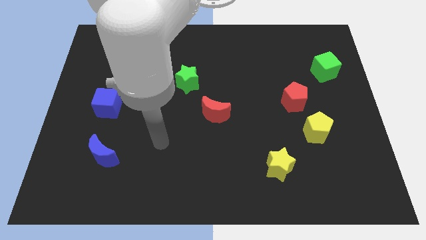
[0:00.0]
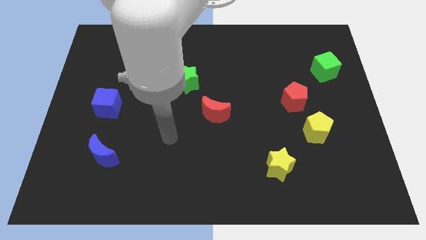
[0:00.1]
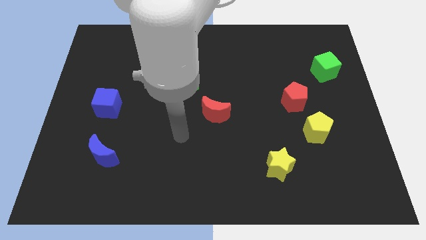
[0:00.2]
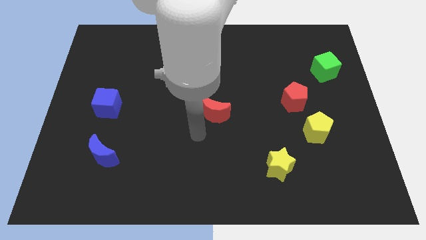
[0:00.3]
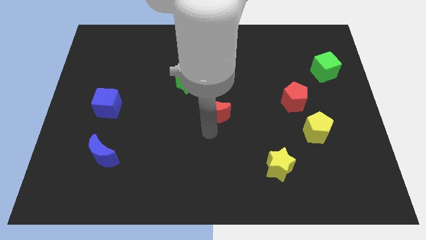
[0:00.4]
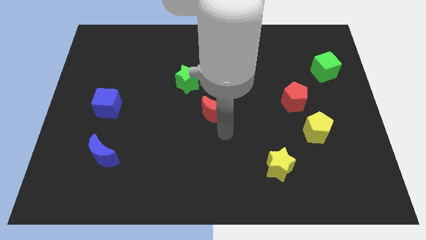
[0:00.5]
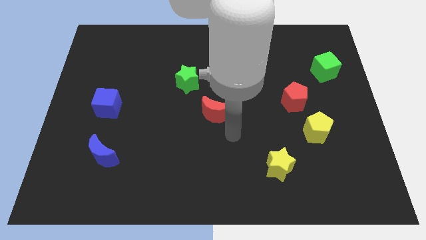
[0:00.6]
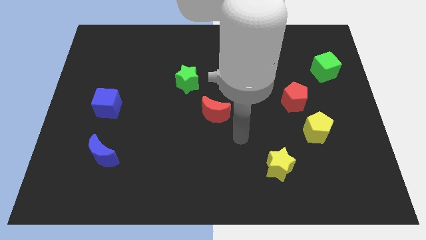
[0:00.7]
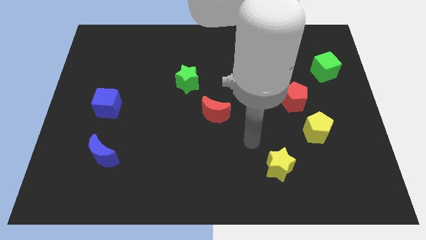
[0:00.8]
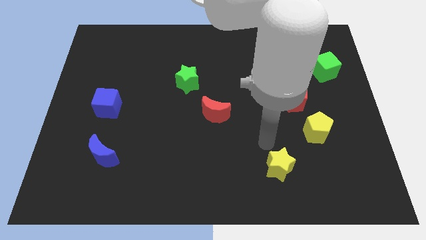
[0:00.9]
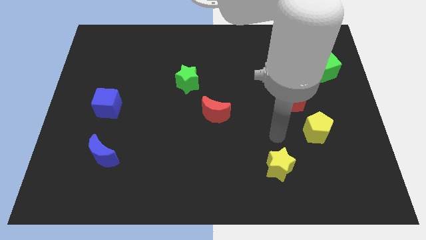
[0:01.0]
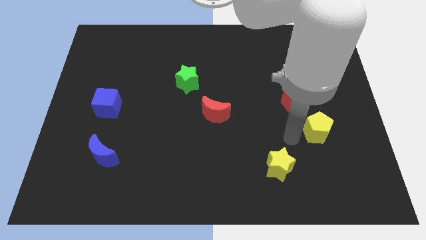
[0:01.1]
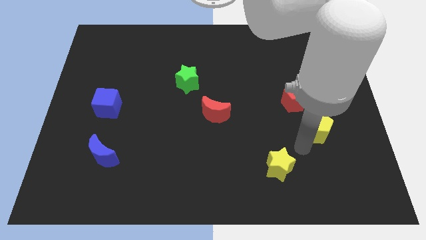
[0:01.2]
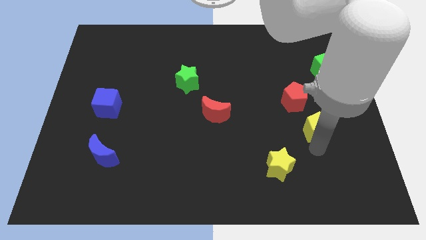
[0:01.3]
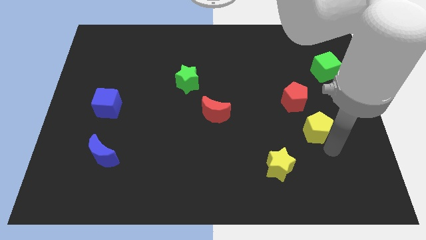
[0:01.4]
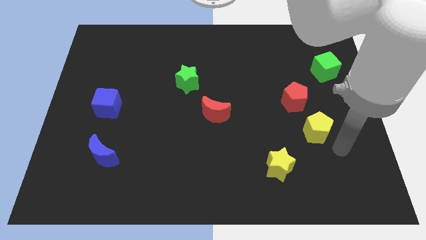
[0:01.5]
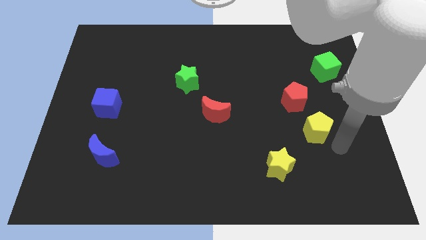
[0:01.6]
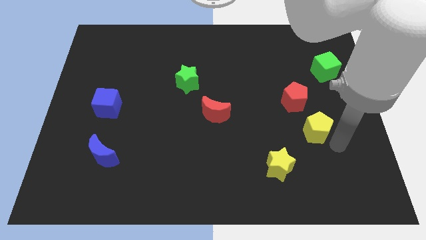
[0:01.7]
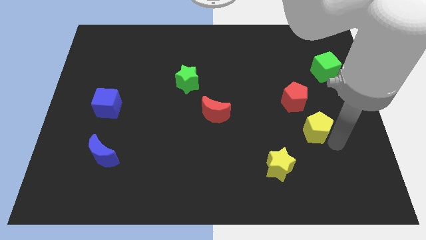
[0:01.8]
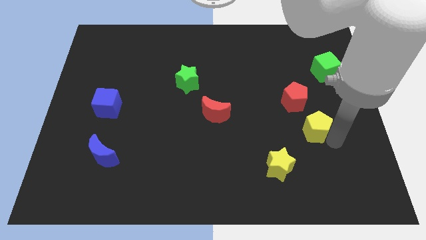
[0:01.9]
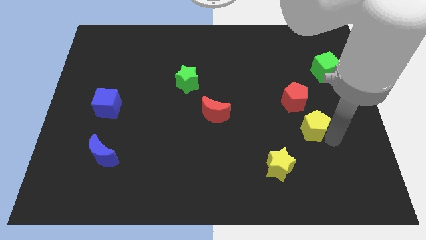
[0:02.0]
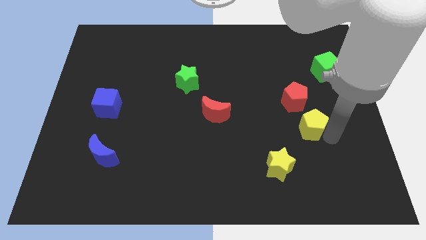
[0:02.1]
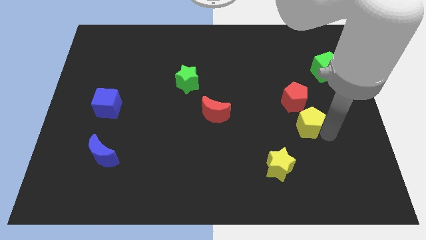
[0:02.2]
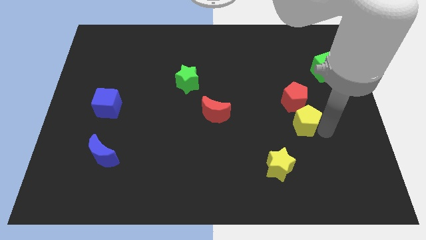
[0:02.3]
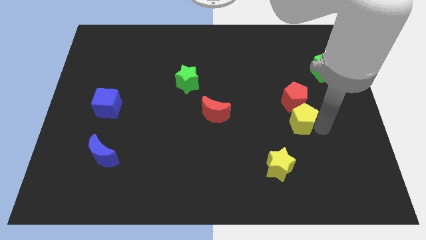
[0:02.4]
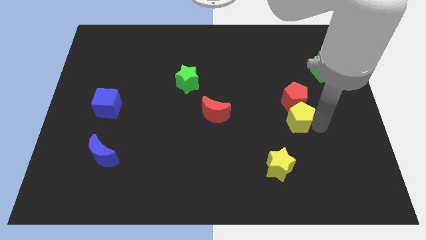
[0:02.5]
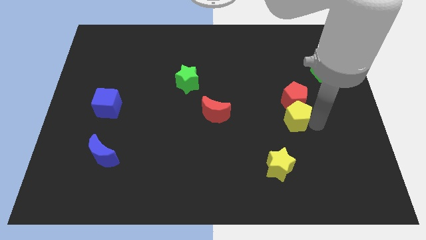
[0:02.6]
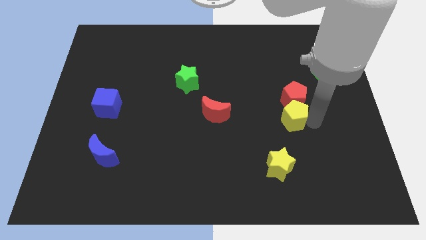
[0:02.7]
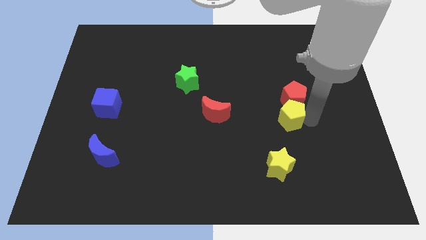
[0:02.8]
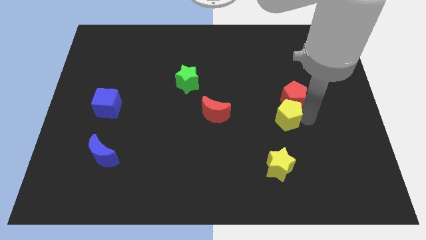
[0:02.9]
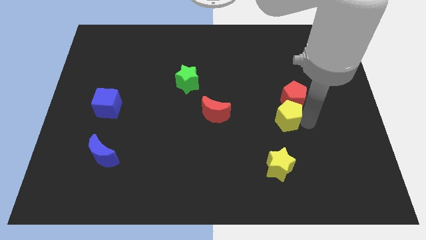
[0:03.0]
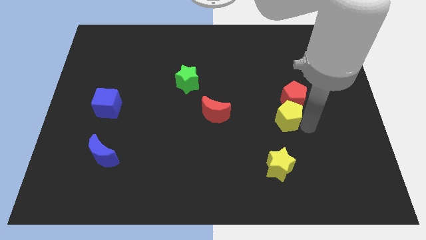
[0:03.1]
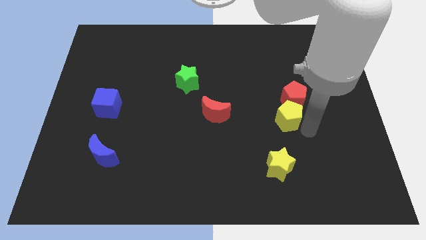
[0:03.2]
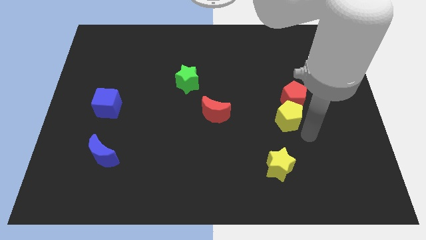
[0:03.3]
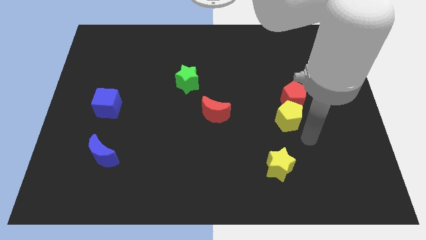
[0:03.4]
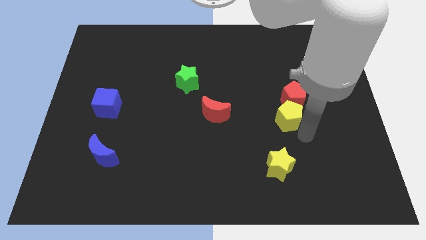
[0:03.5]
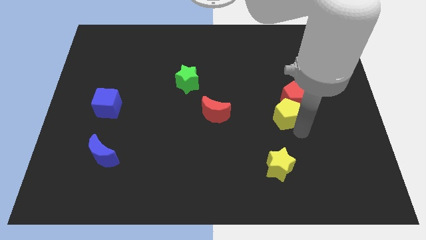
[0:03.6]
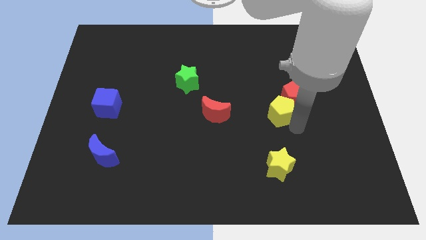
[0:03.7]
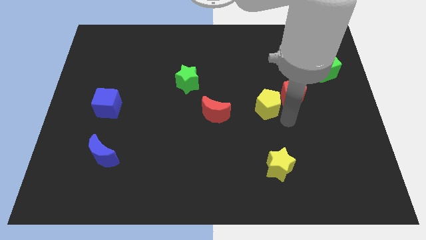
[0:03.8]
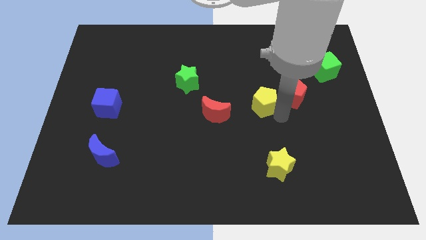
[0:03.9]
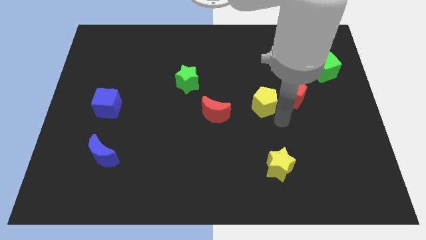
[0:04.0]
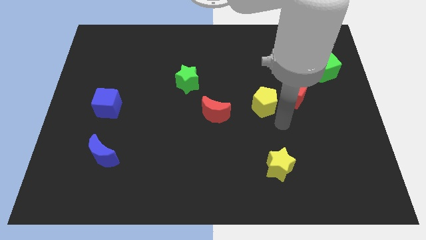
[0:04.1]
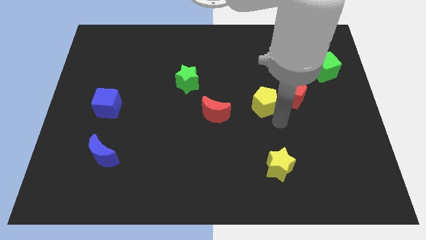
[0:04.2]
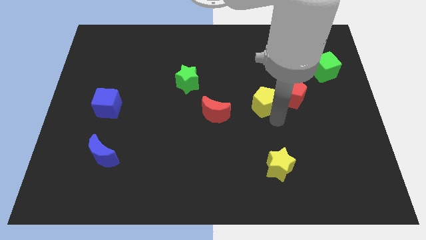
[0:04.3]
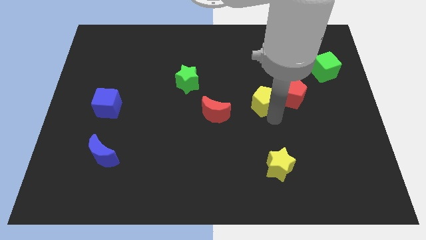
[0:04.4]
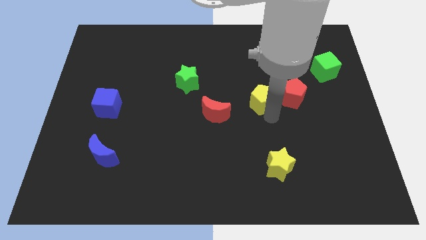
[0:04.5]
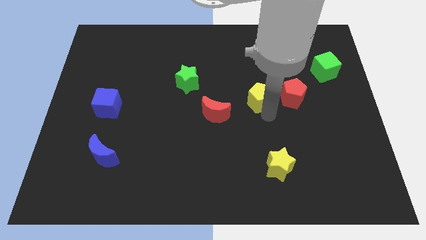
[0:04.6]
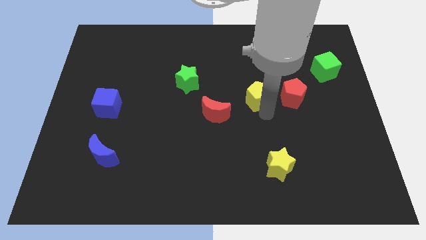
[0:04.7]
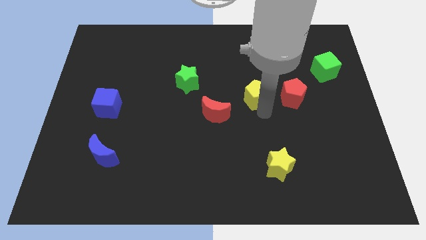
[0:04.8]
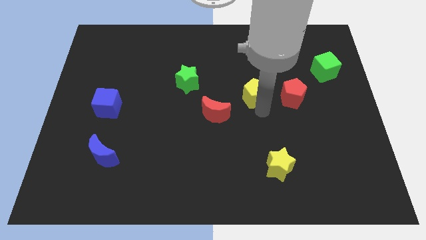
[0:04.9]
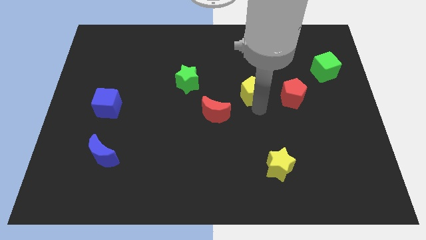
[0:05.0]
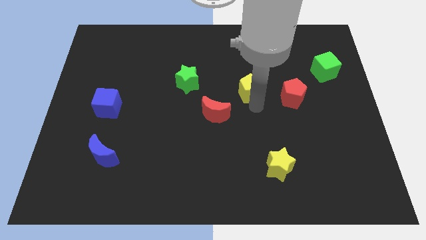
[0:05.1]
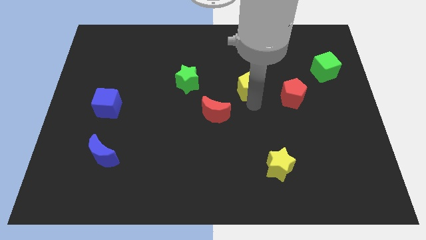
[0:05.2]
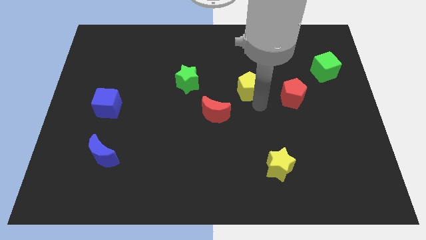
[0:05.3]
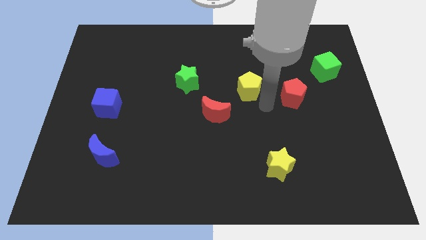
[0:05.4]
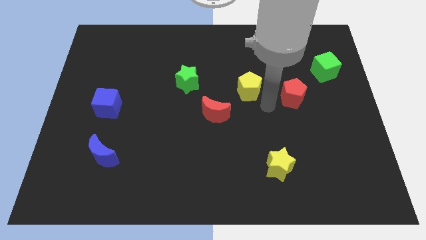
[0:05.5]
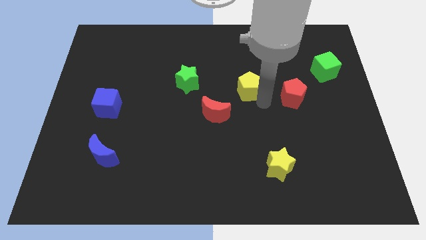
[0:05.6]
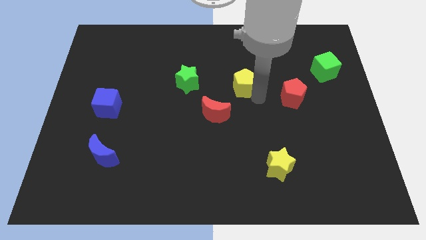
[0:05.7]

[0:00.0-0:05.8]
push the yellow pentagon upwards and then to the left

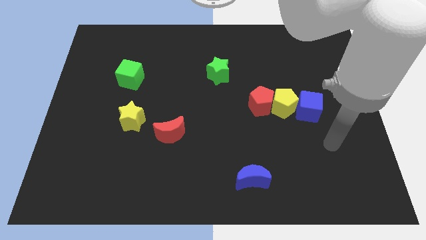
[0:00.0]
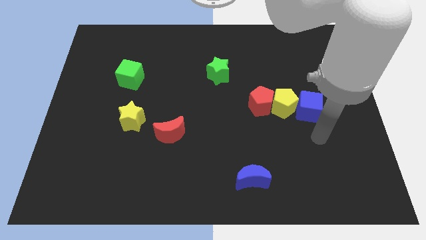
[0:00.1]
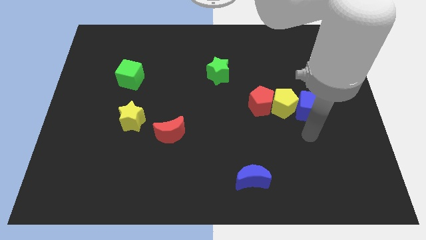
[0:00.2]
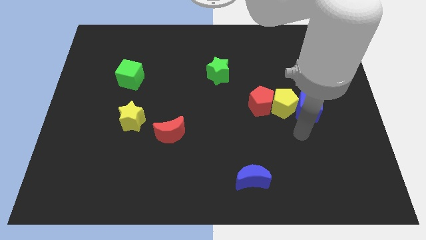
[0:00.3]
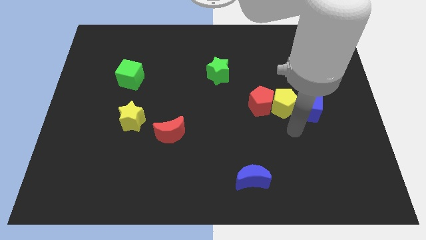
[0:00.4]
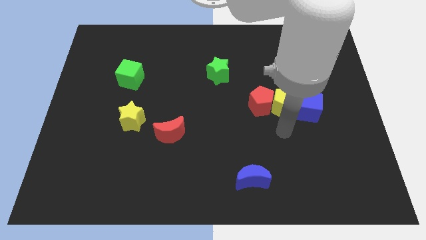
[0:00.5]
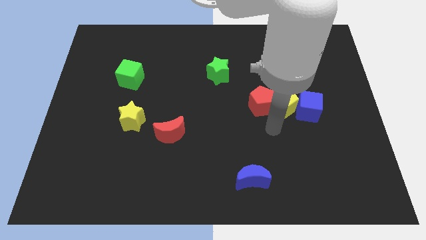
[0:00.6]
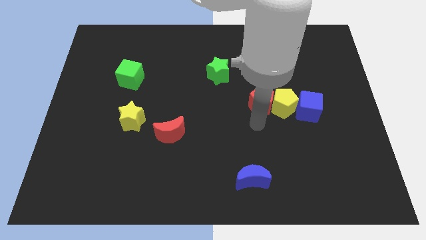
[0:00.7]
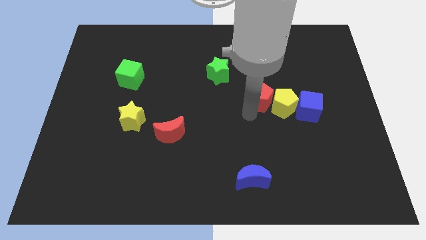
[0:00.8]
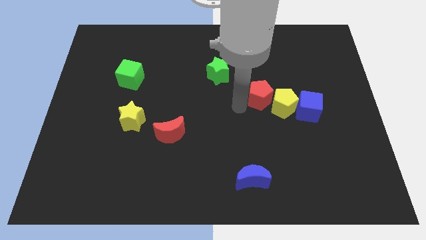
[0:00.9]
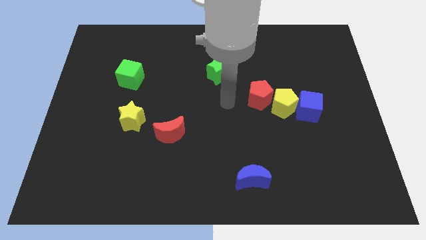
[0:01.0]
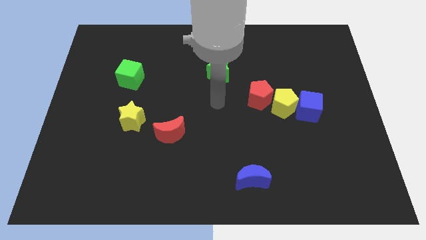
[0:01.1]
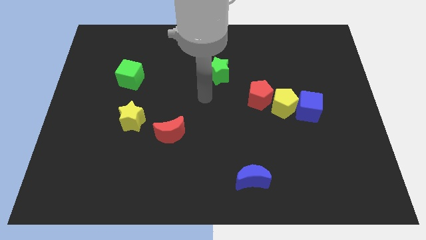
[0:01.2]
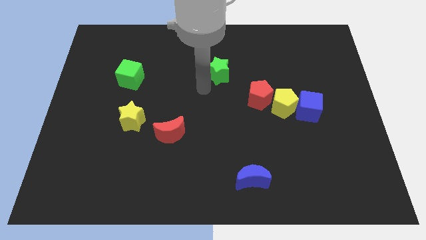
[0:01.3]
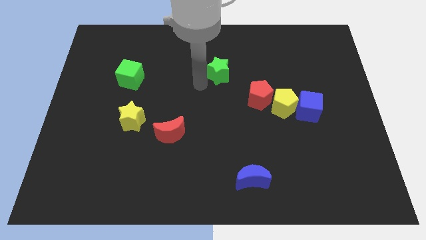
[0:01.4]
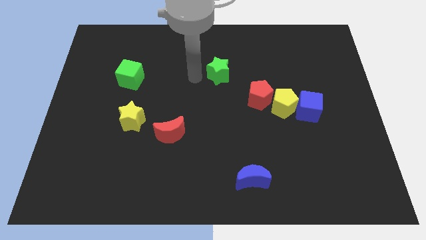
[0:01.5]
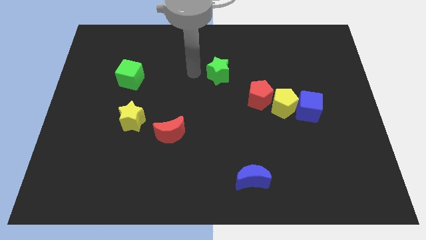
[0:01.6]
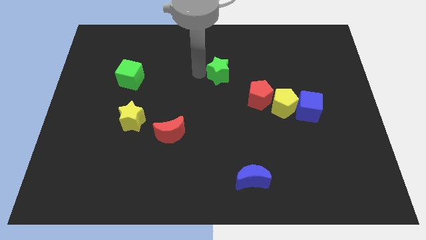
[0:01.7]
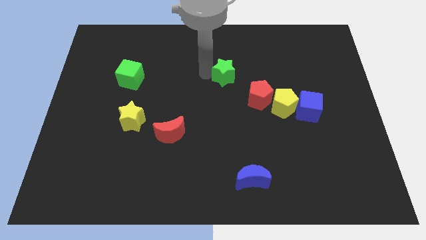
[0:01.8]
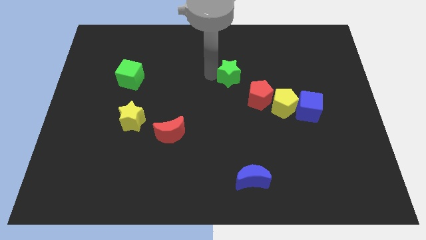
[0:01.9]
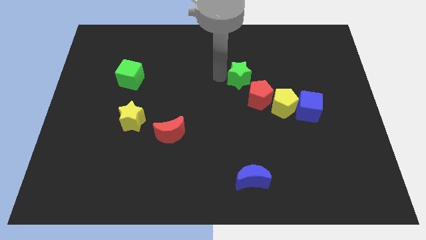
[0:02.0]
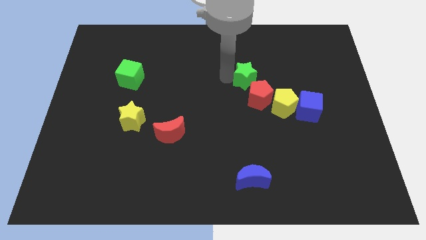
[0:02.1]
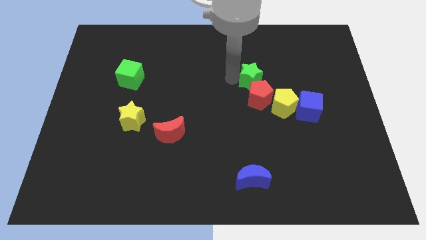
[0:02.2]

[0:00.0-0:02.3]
push the green star to the right somewhat
